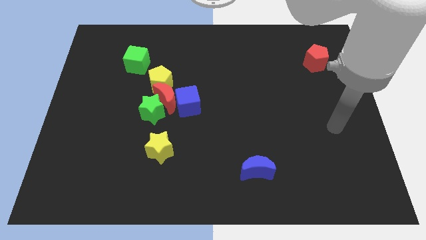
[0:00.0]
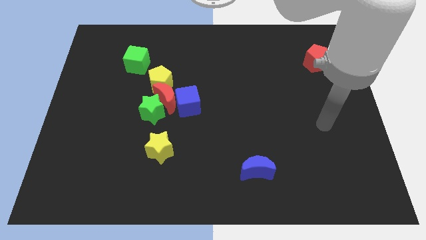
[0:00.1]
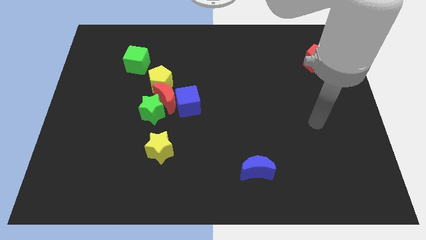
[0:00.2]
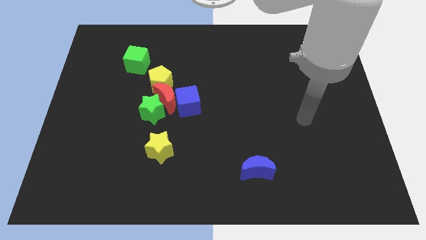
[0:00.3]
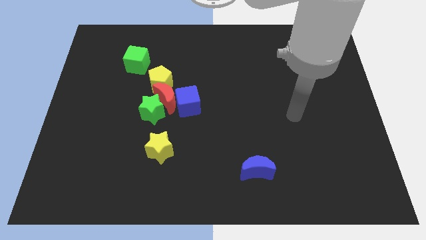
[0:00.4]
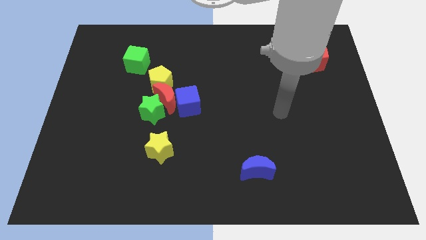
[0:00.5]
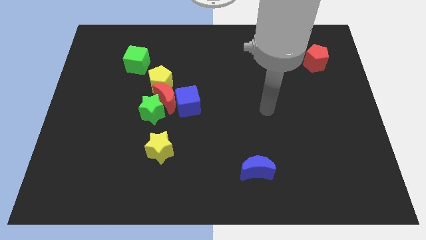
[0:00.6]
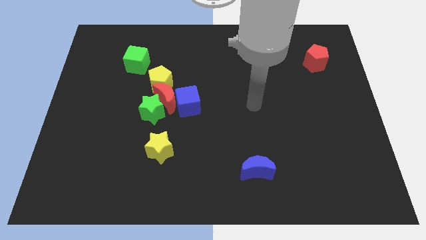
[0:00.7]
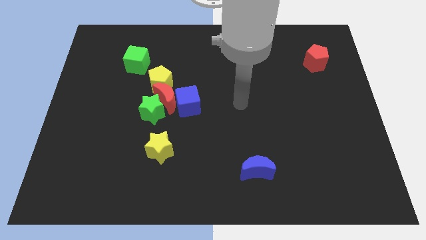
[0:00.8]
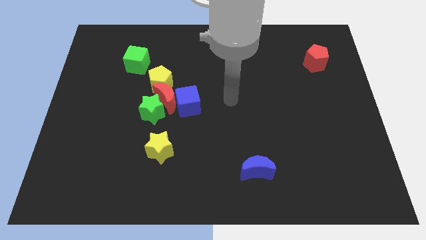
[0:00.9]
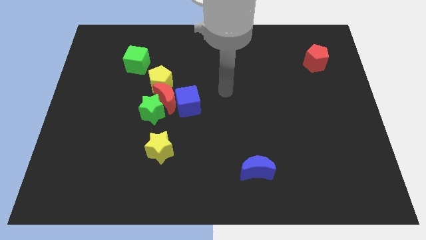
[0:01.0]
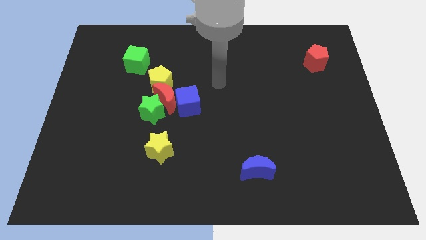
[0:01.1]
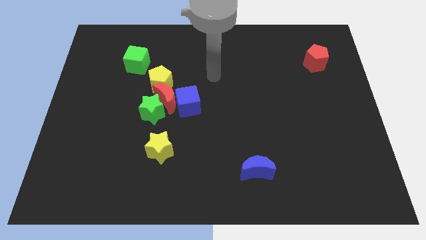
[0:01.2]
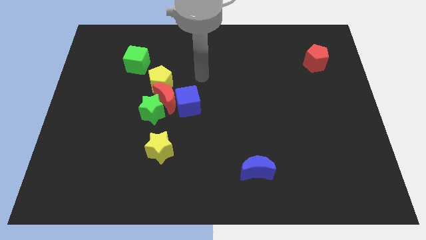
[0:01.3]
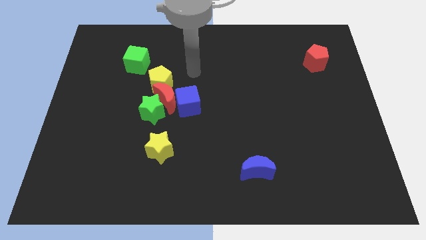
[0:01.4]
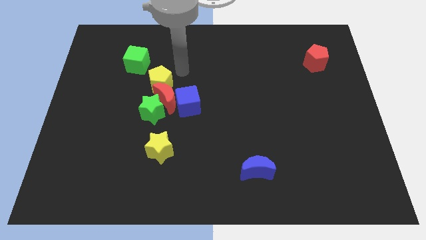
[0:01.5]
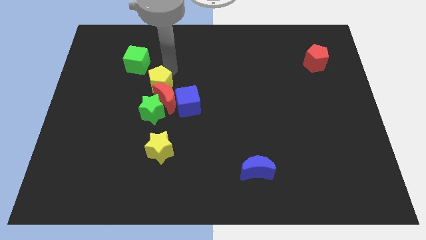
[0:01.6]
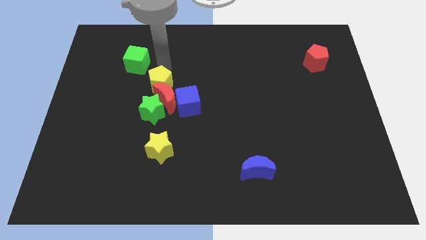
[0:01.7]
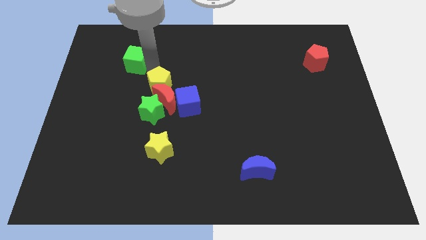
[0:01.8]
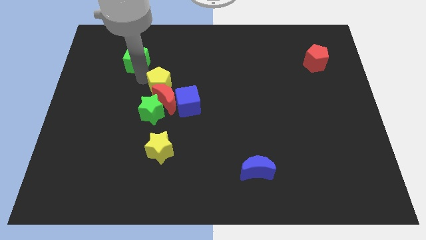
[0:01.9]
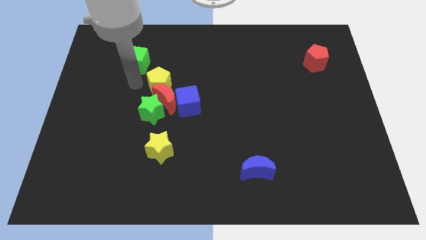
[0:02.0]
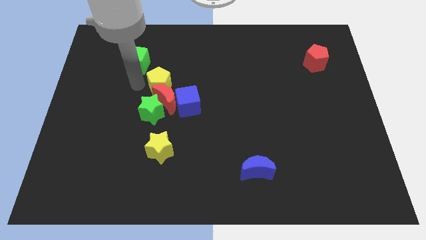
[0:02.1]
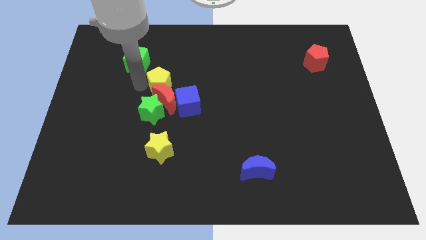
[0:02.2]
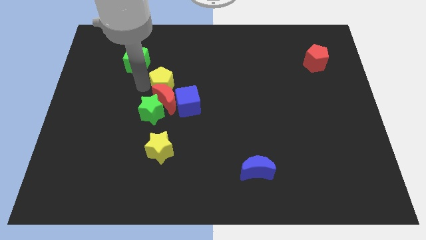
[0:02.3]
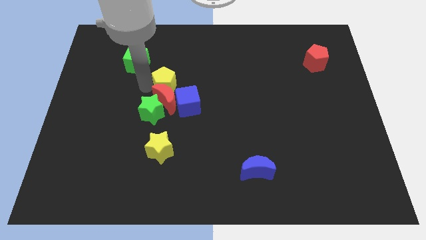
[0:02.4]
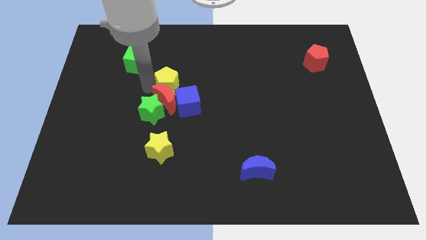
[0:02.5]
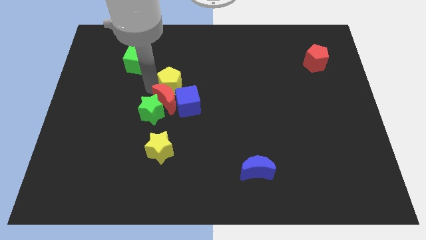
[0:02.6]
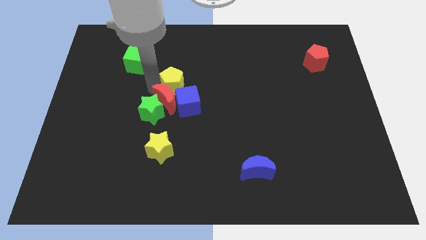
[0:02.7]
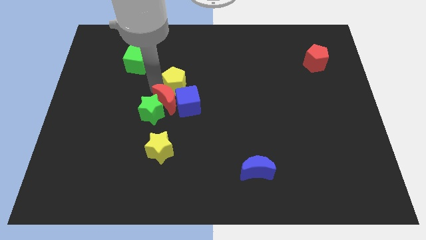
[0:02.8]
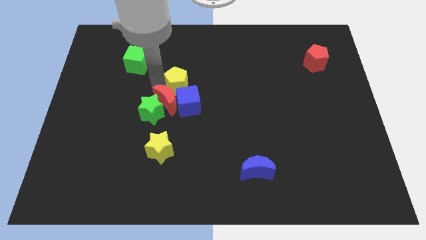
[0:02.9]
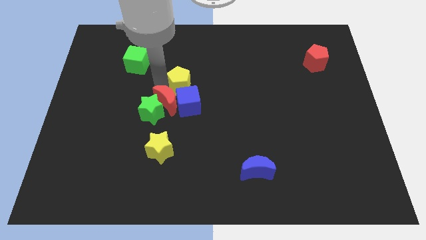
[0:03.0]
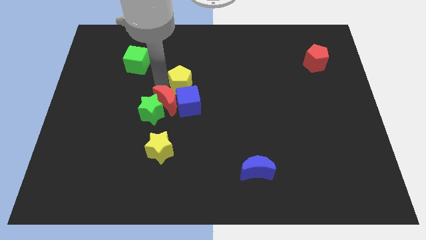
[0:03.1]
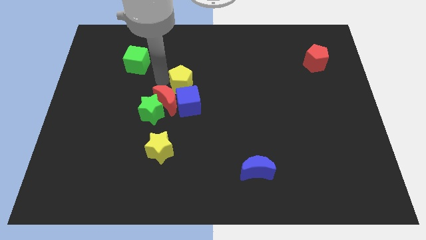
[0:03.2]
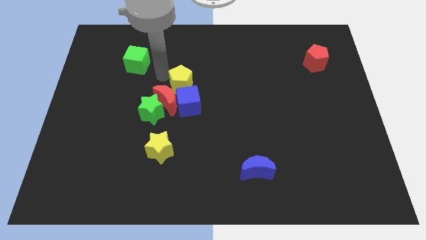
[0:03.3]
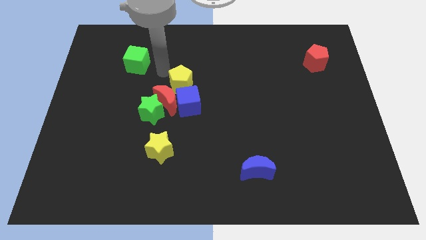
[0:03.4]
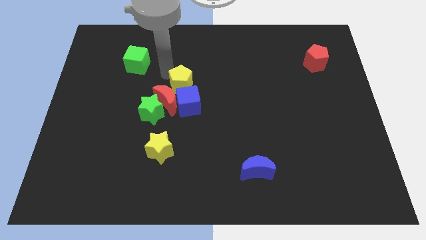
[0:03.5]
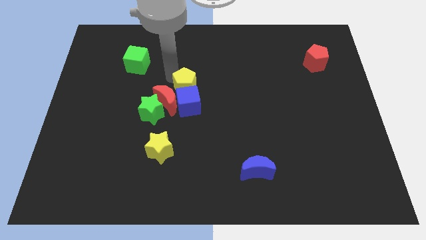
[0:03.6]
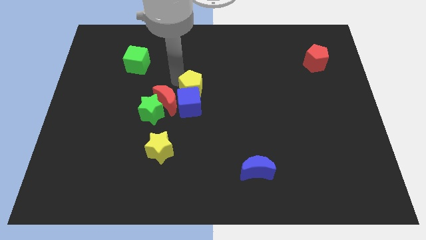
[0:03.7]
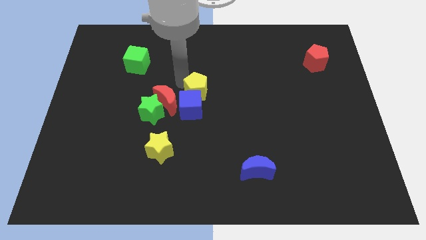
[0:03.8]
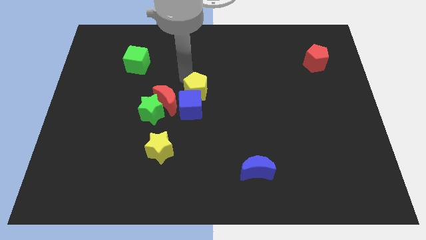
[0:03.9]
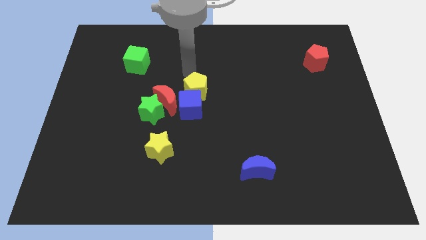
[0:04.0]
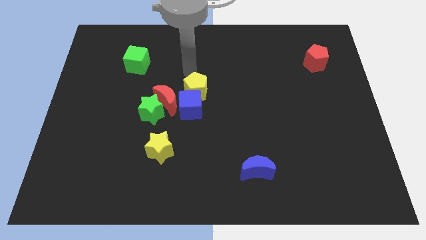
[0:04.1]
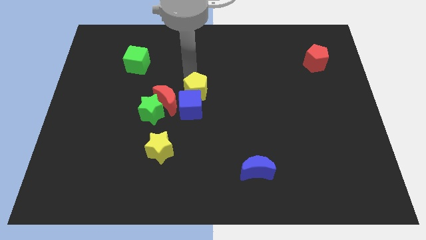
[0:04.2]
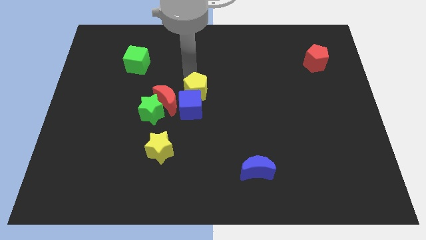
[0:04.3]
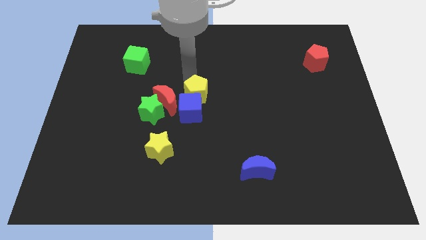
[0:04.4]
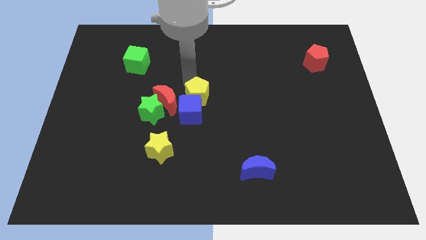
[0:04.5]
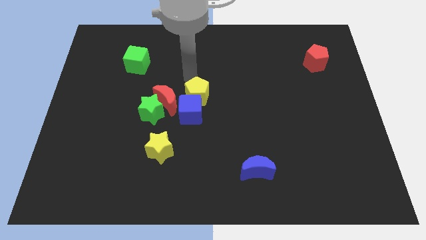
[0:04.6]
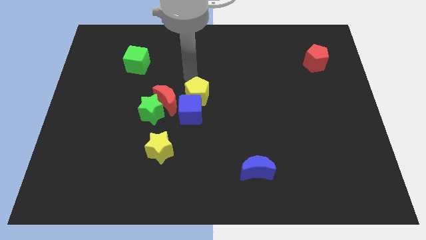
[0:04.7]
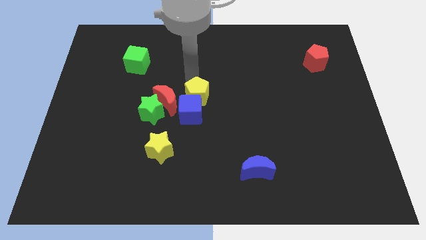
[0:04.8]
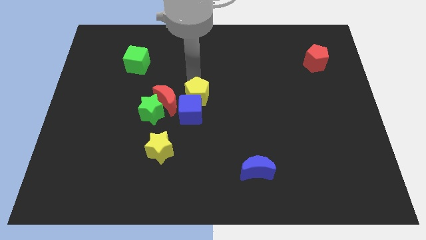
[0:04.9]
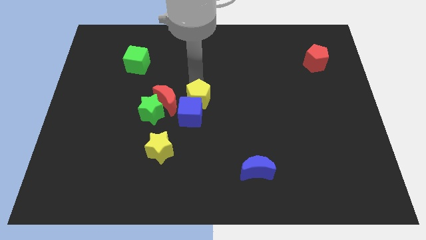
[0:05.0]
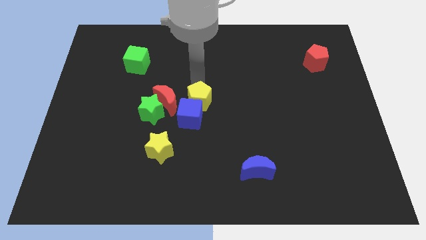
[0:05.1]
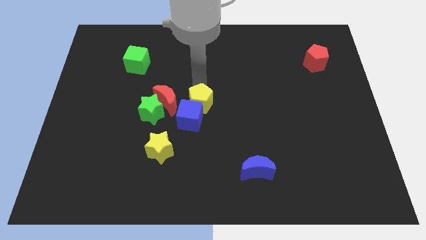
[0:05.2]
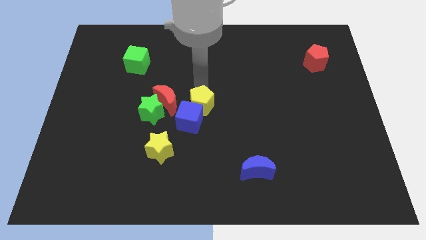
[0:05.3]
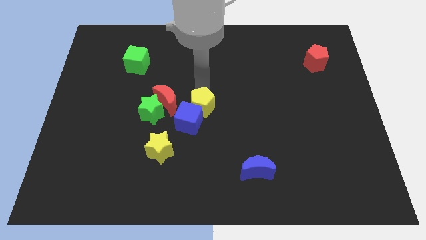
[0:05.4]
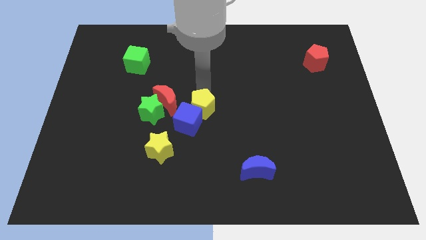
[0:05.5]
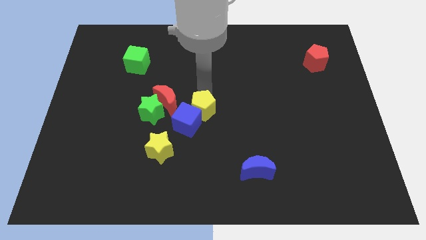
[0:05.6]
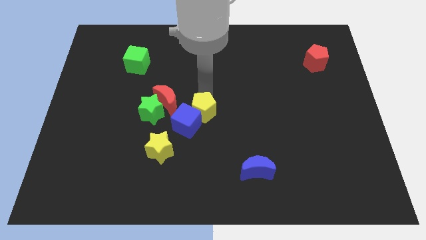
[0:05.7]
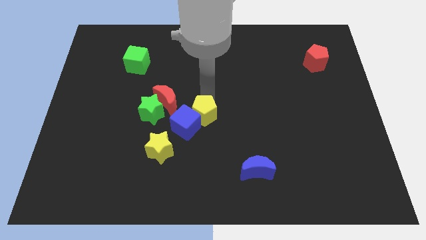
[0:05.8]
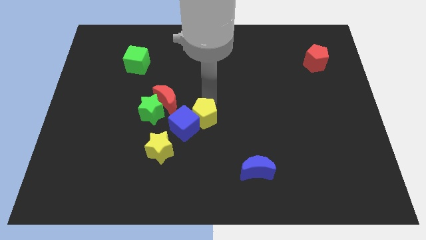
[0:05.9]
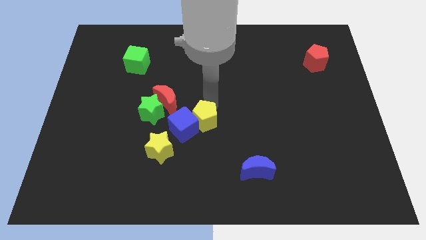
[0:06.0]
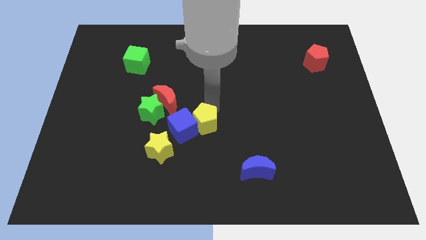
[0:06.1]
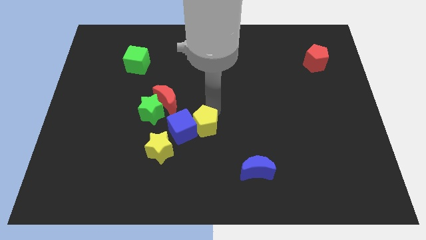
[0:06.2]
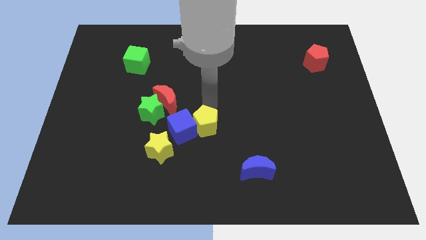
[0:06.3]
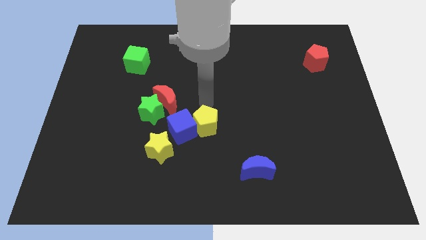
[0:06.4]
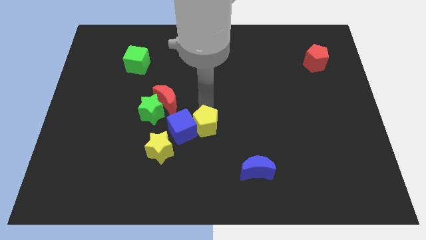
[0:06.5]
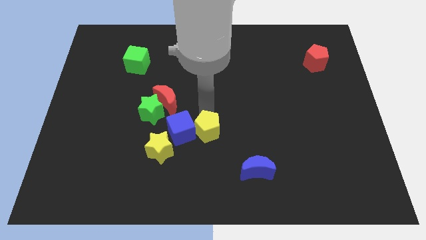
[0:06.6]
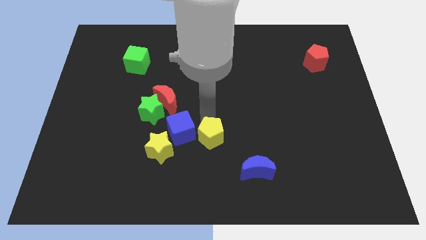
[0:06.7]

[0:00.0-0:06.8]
put the yellow pentagon to the right of the yellow star
